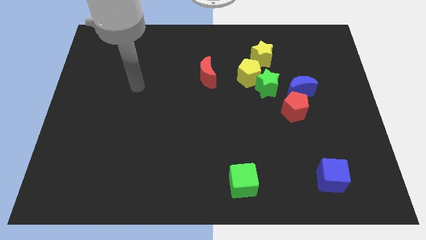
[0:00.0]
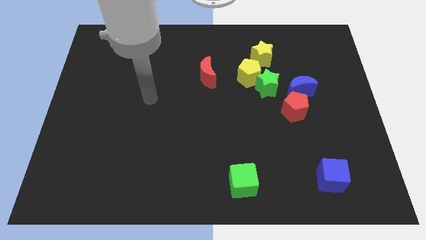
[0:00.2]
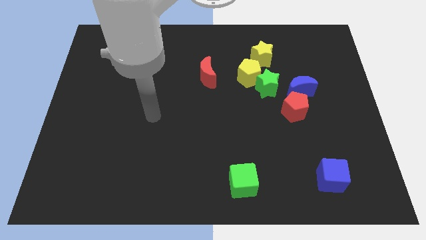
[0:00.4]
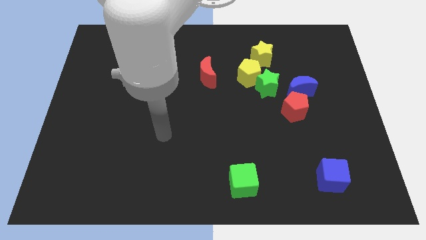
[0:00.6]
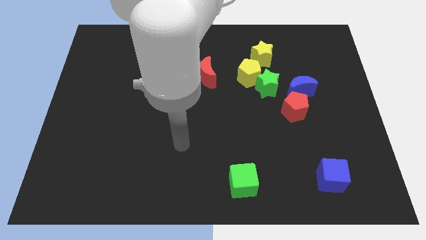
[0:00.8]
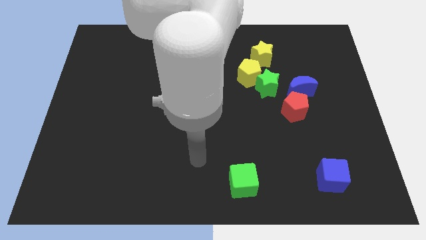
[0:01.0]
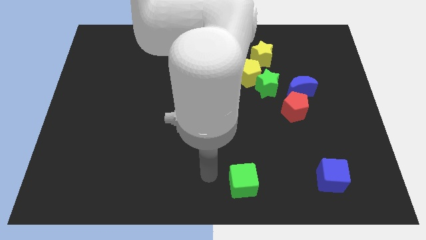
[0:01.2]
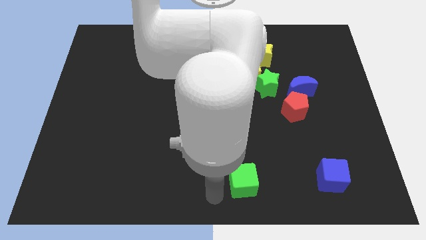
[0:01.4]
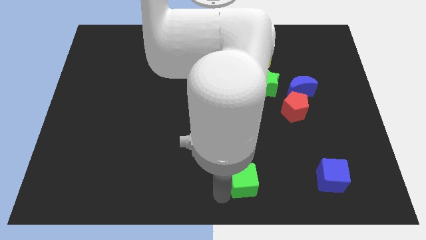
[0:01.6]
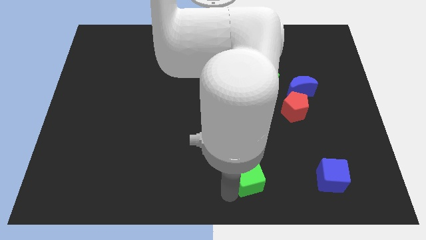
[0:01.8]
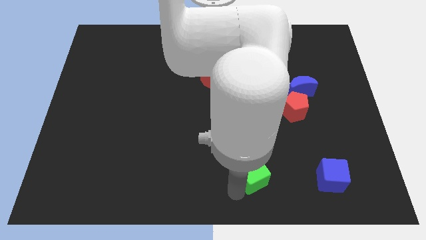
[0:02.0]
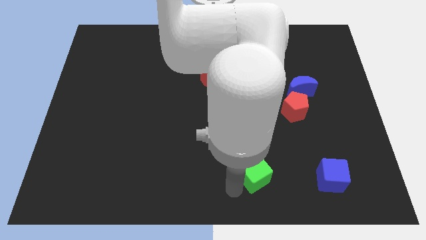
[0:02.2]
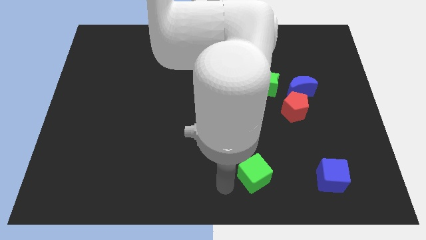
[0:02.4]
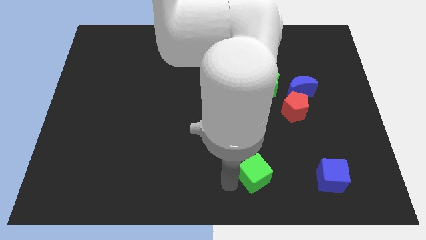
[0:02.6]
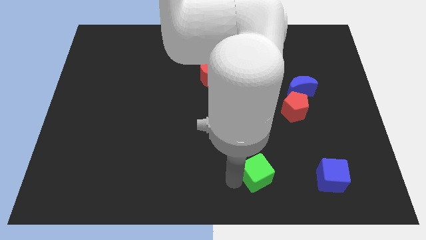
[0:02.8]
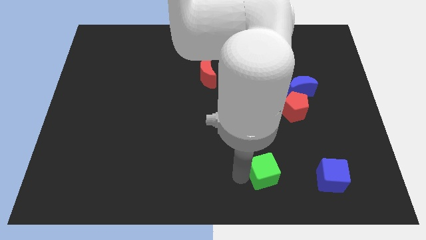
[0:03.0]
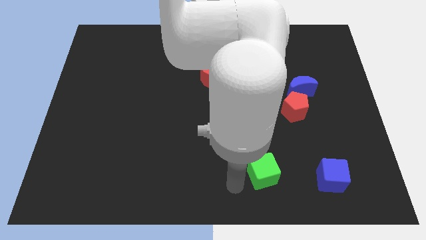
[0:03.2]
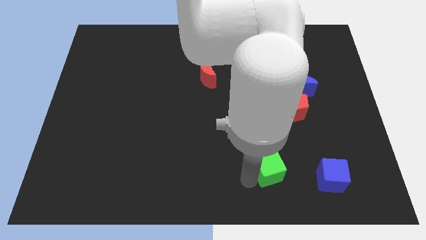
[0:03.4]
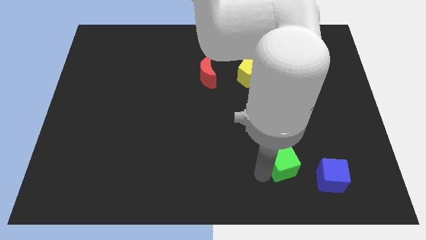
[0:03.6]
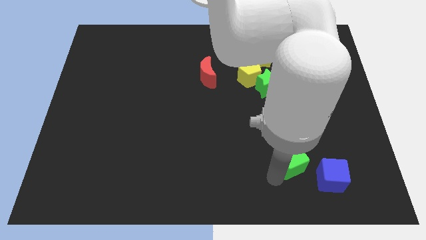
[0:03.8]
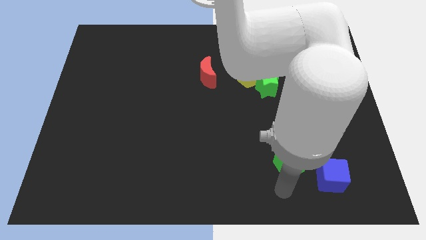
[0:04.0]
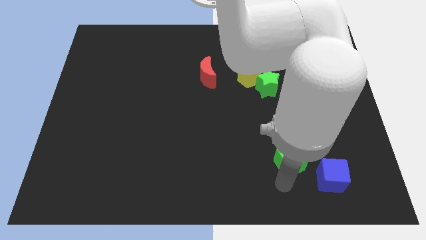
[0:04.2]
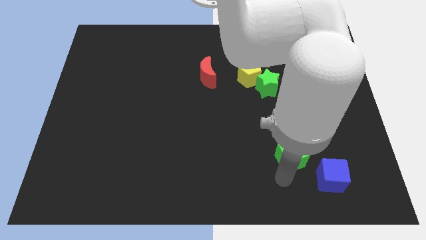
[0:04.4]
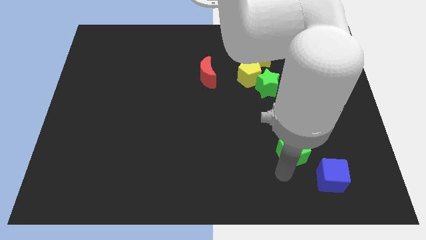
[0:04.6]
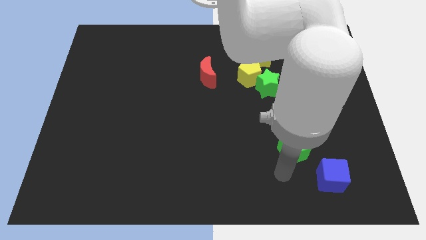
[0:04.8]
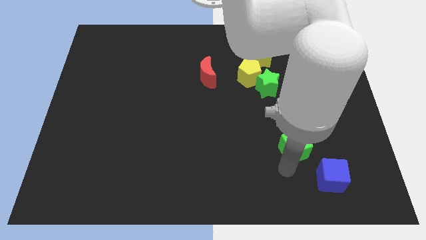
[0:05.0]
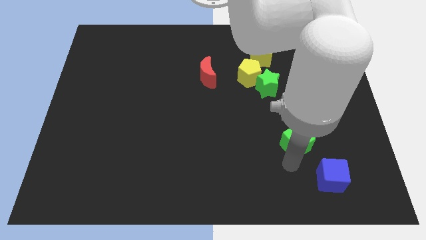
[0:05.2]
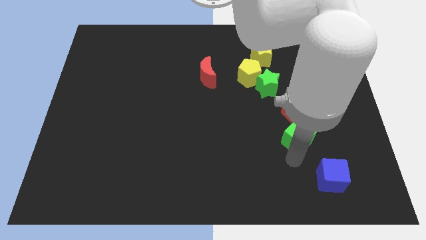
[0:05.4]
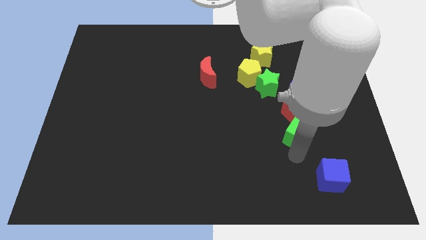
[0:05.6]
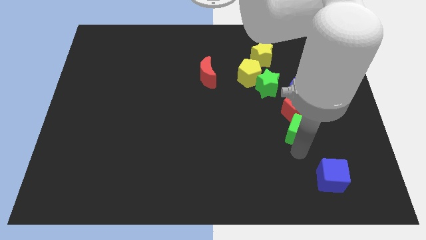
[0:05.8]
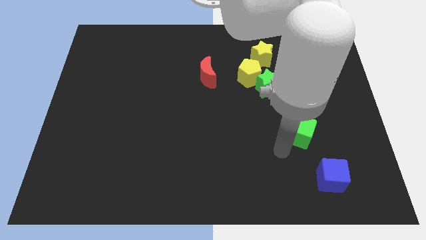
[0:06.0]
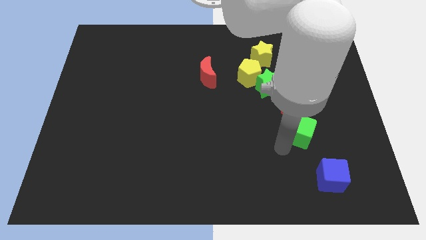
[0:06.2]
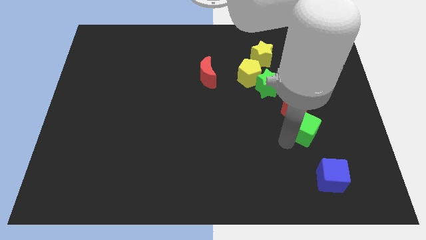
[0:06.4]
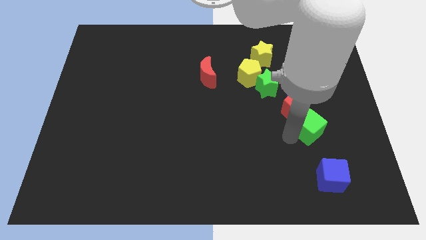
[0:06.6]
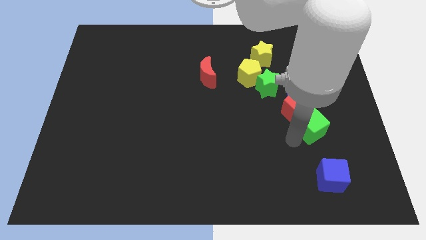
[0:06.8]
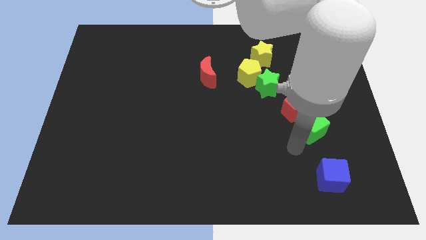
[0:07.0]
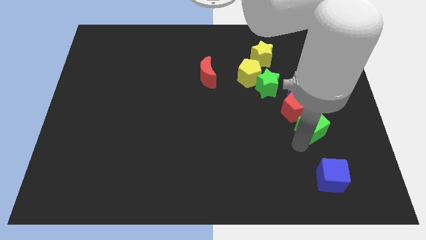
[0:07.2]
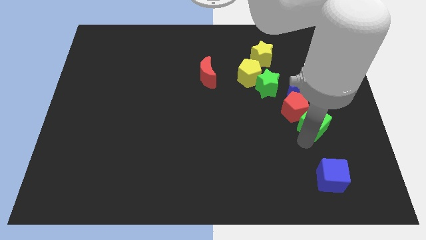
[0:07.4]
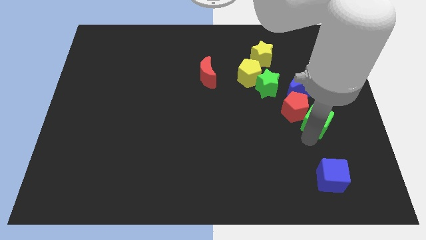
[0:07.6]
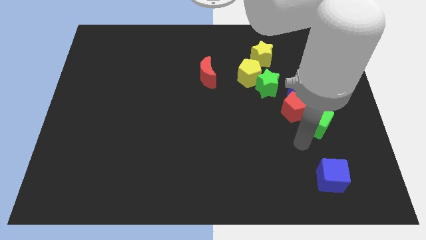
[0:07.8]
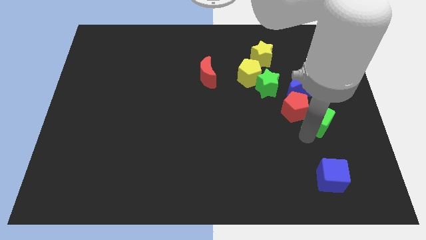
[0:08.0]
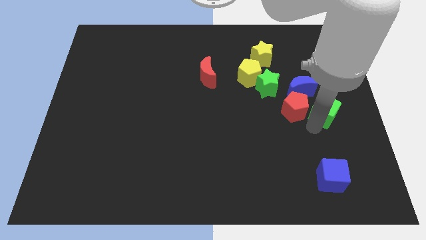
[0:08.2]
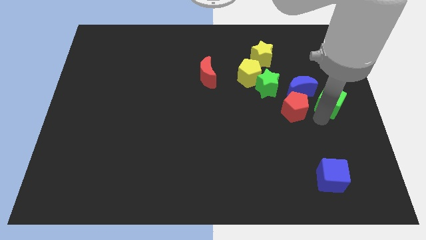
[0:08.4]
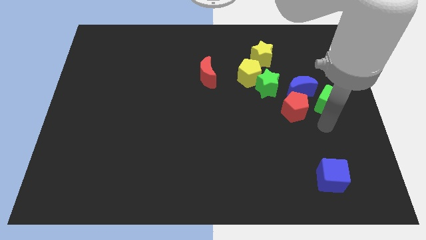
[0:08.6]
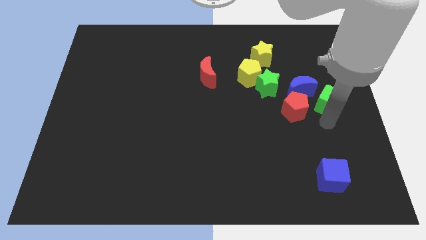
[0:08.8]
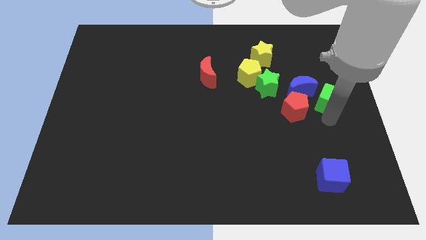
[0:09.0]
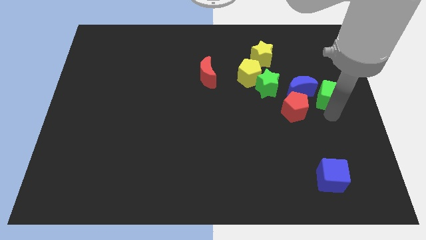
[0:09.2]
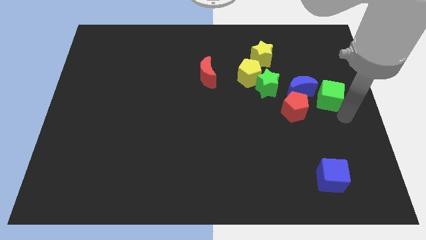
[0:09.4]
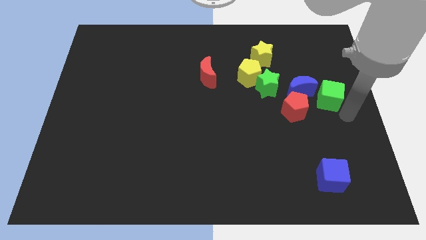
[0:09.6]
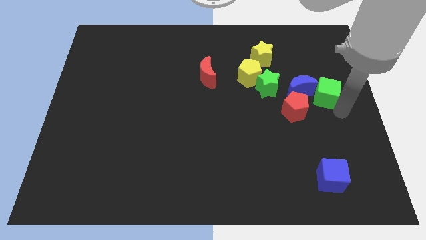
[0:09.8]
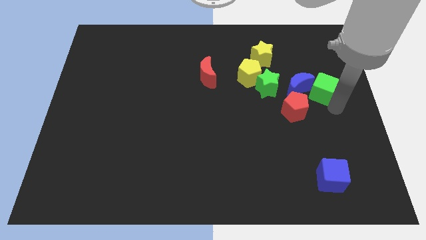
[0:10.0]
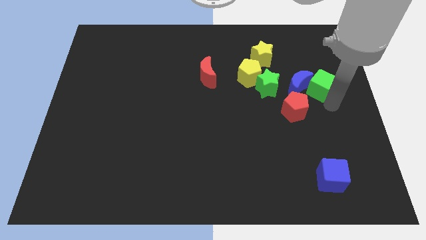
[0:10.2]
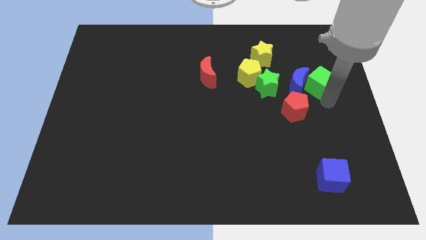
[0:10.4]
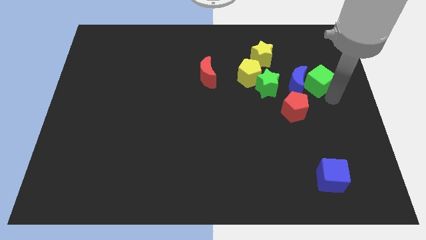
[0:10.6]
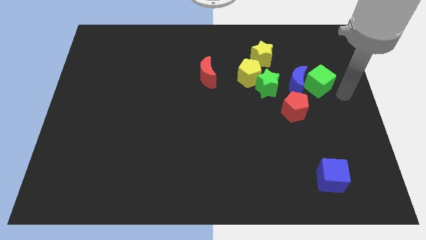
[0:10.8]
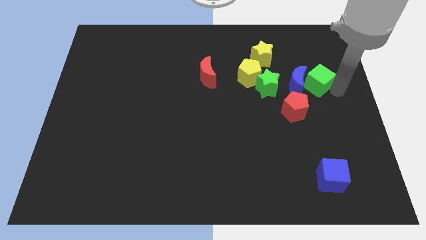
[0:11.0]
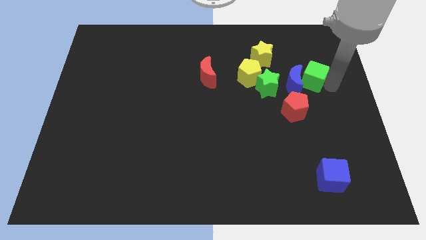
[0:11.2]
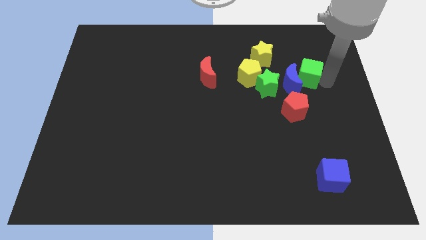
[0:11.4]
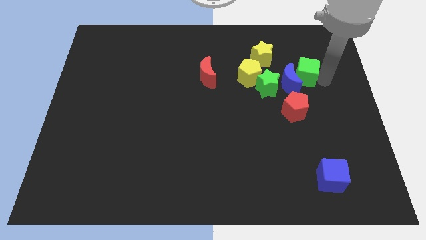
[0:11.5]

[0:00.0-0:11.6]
move the green cube diagonally up and to the right of the green star

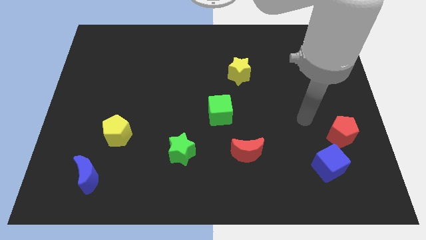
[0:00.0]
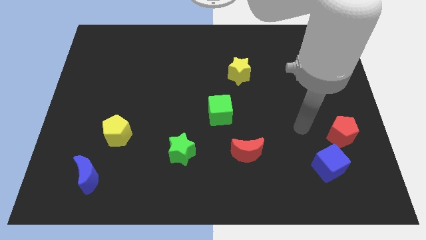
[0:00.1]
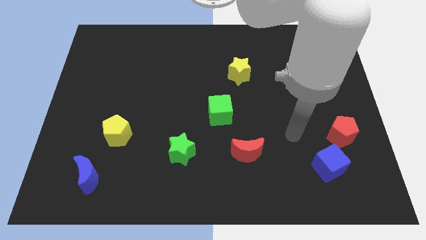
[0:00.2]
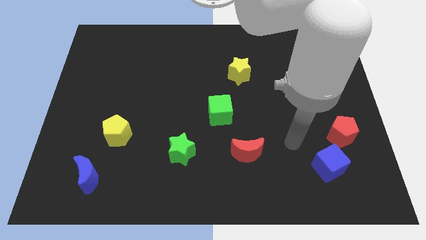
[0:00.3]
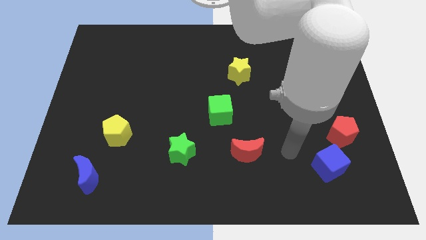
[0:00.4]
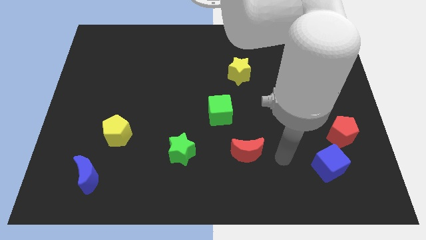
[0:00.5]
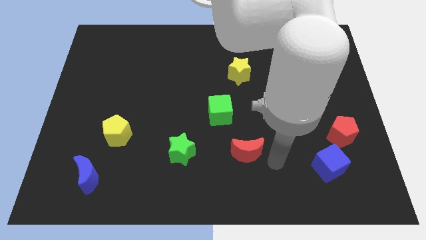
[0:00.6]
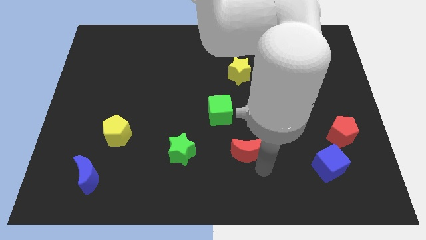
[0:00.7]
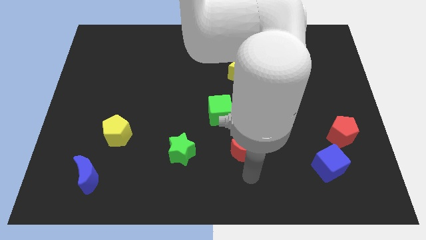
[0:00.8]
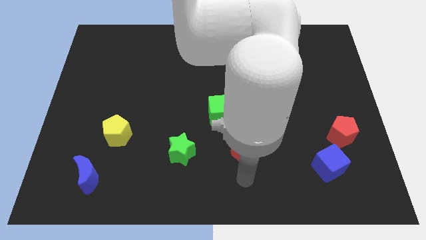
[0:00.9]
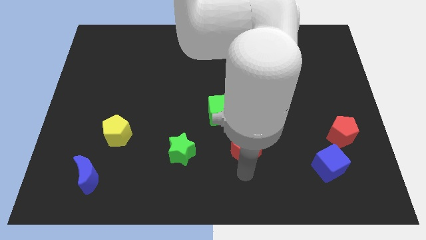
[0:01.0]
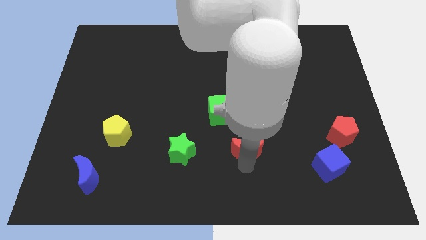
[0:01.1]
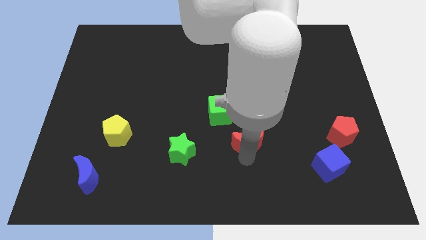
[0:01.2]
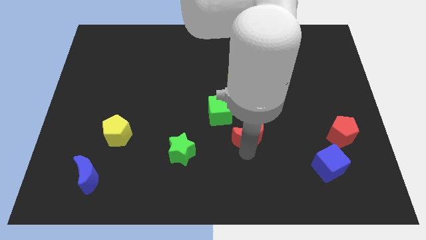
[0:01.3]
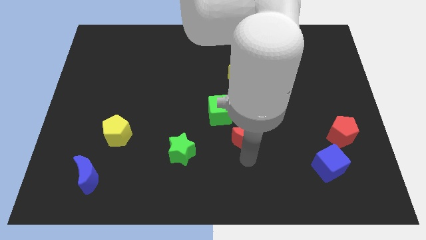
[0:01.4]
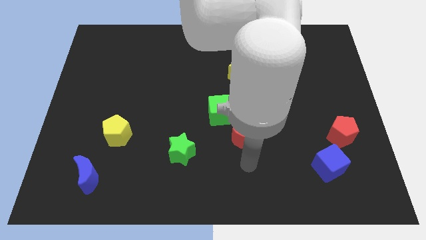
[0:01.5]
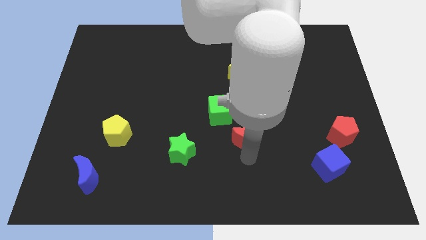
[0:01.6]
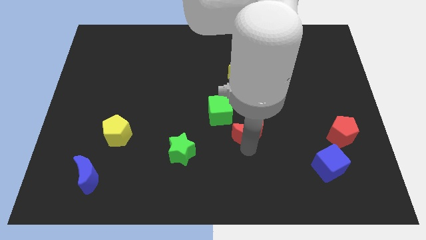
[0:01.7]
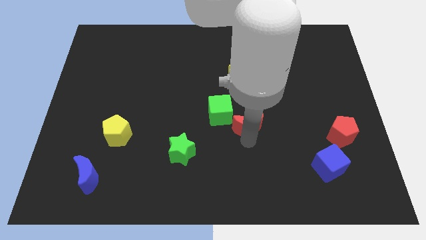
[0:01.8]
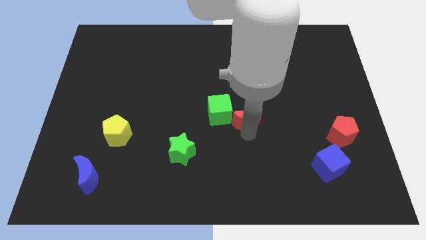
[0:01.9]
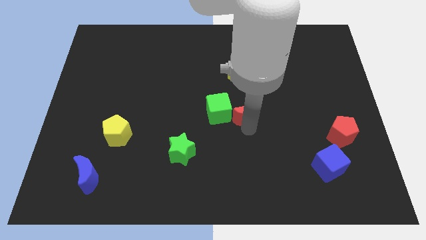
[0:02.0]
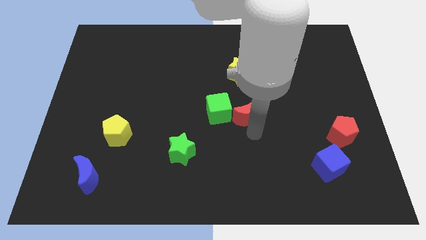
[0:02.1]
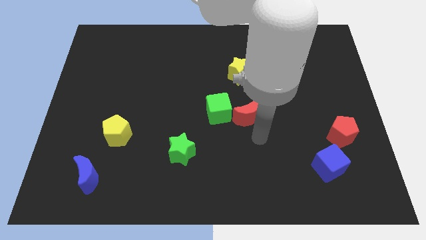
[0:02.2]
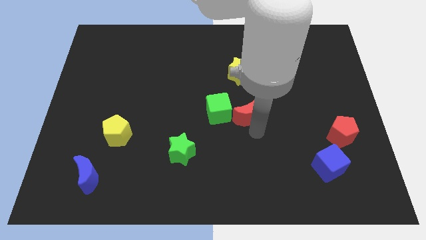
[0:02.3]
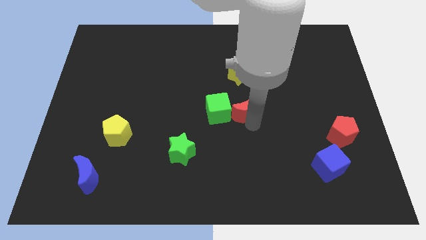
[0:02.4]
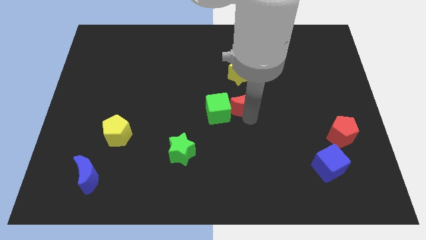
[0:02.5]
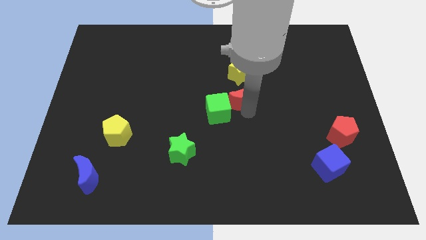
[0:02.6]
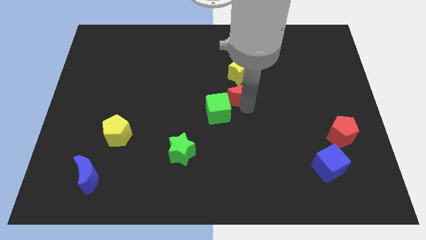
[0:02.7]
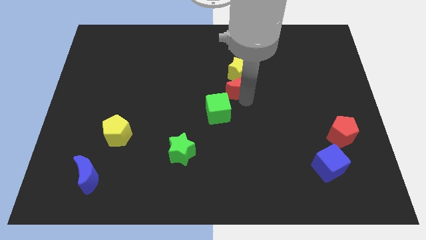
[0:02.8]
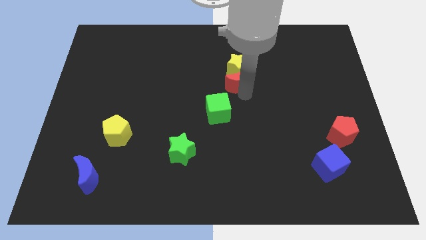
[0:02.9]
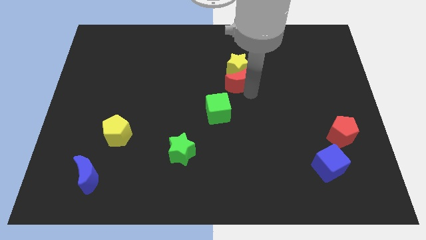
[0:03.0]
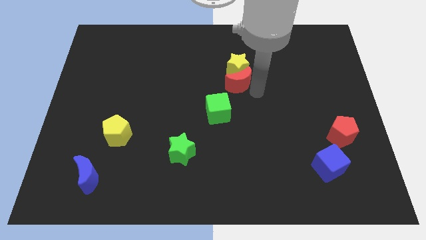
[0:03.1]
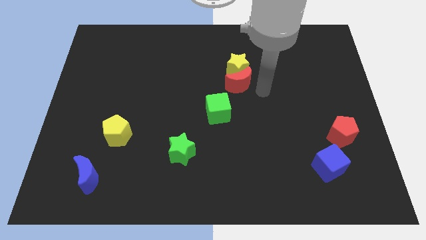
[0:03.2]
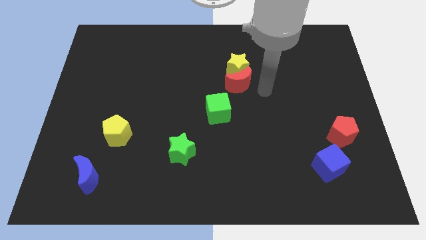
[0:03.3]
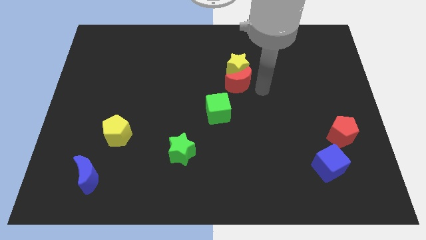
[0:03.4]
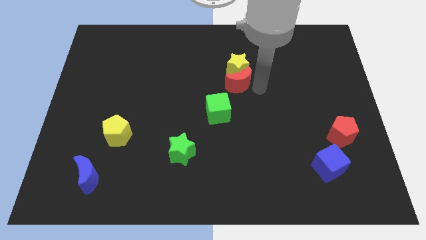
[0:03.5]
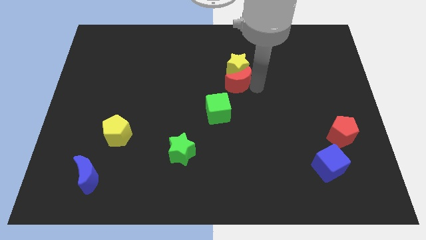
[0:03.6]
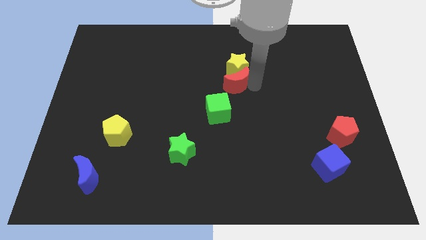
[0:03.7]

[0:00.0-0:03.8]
move the red moon to the top of the green cube
